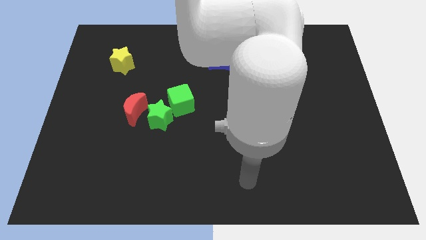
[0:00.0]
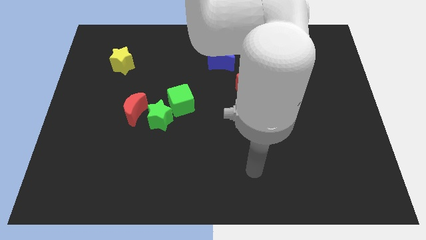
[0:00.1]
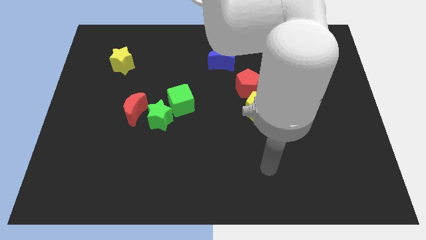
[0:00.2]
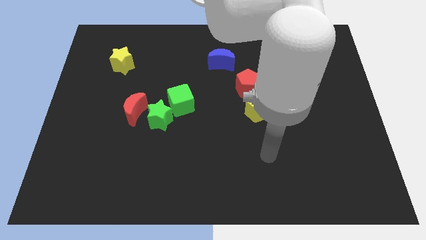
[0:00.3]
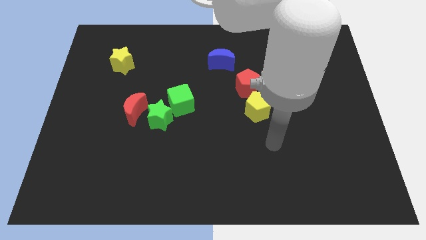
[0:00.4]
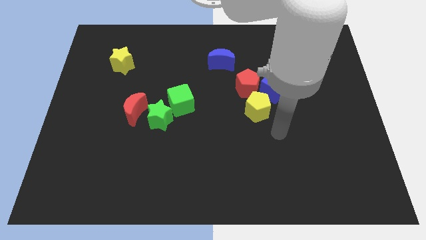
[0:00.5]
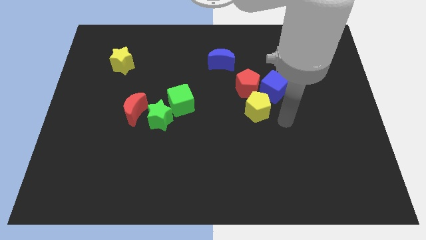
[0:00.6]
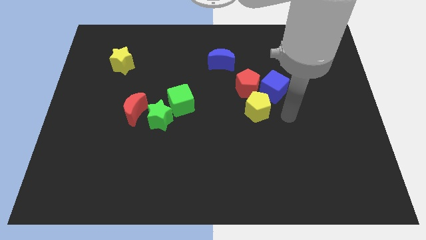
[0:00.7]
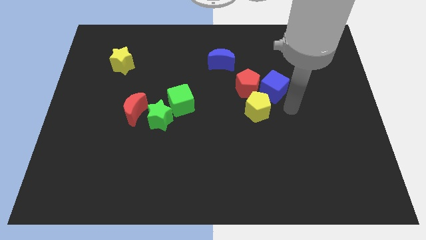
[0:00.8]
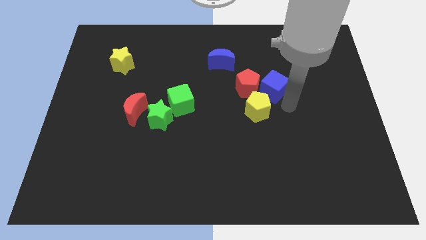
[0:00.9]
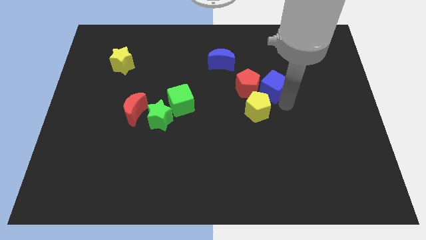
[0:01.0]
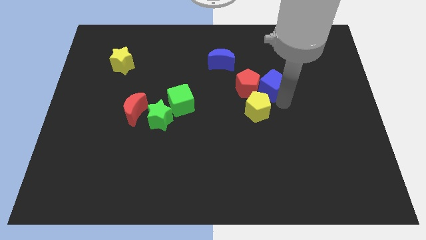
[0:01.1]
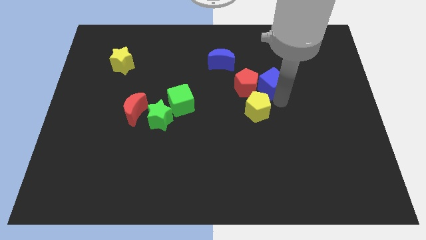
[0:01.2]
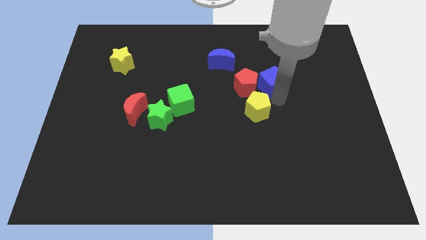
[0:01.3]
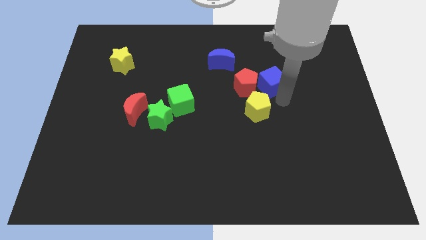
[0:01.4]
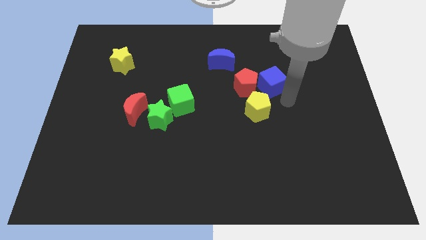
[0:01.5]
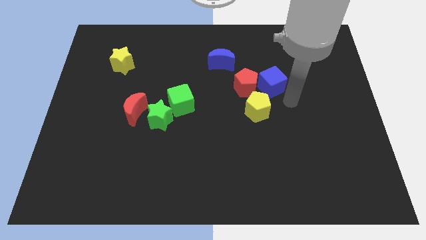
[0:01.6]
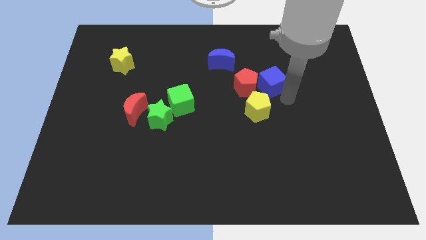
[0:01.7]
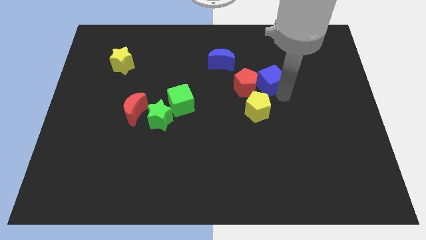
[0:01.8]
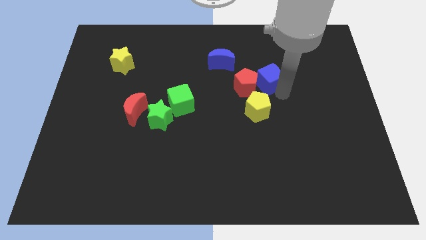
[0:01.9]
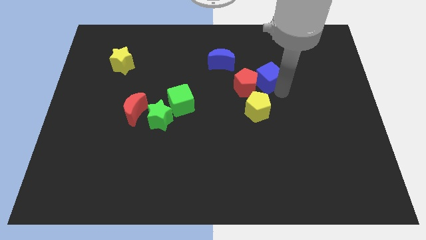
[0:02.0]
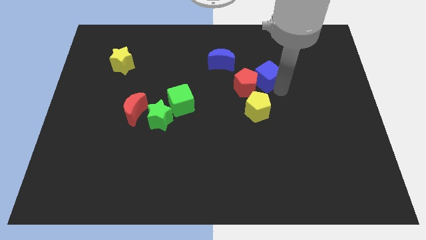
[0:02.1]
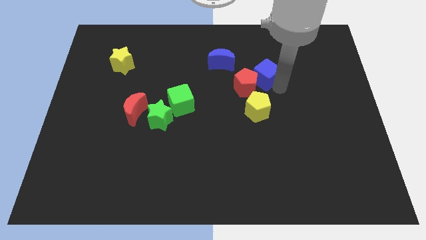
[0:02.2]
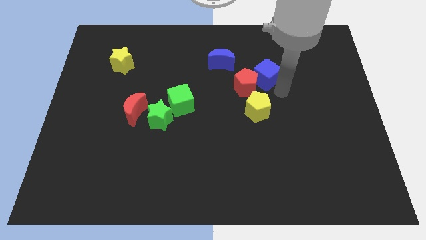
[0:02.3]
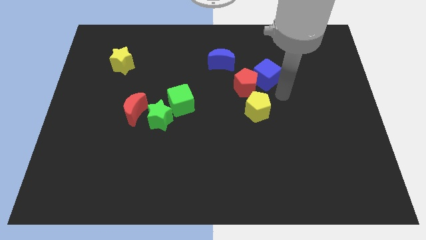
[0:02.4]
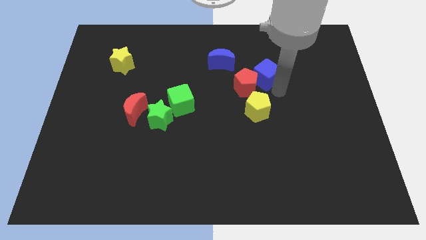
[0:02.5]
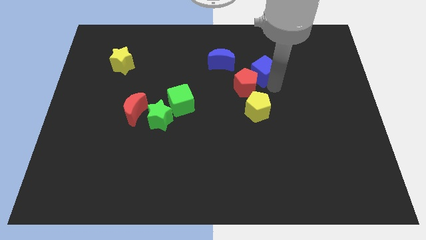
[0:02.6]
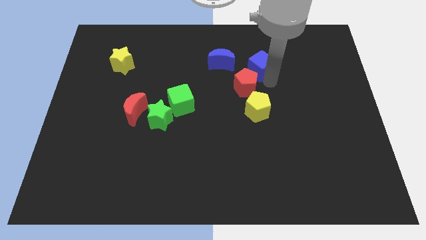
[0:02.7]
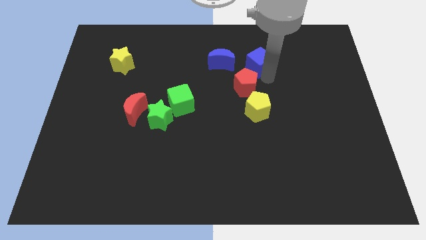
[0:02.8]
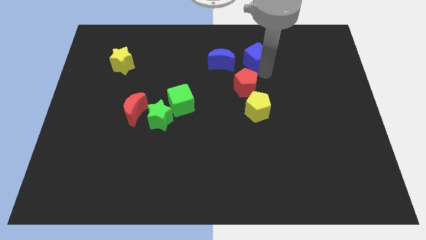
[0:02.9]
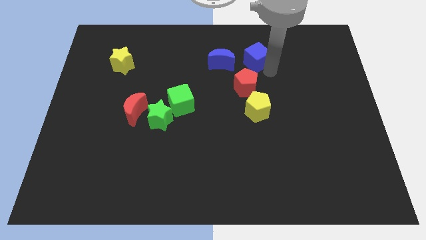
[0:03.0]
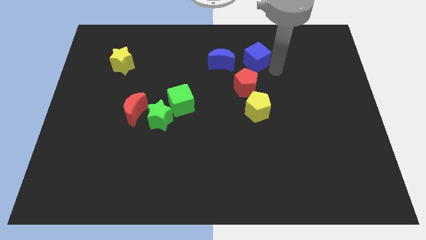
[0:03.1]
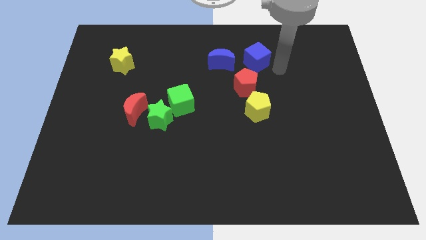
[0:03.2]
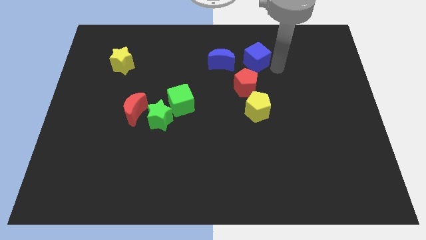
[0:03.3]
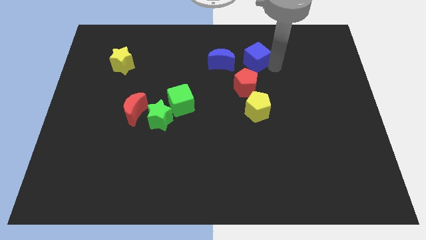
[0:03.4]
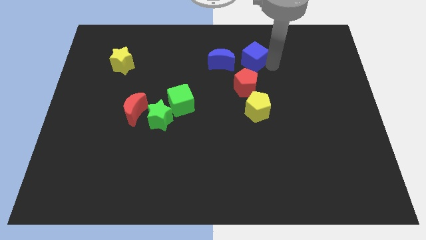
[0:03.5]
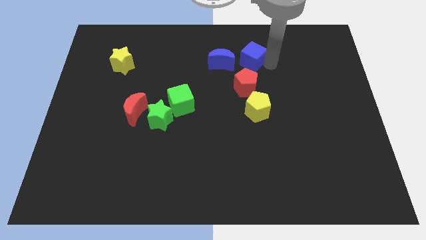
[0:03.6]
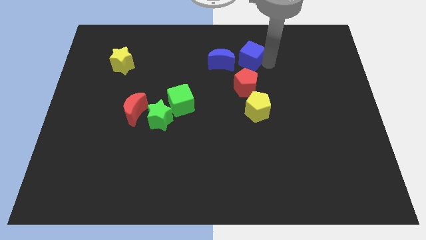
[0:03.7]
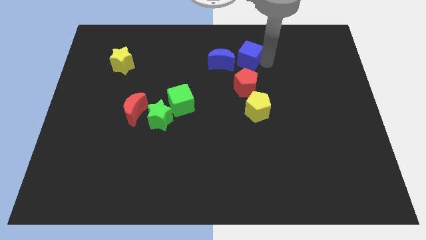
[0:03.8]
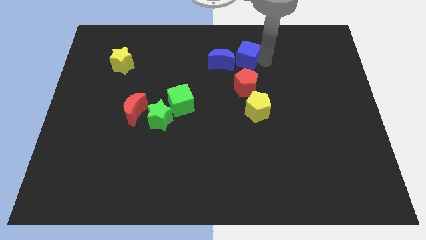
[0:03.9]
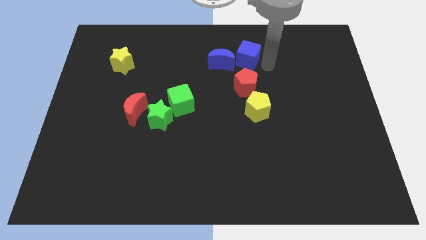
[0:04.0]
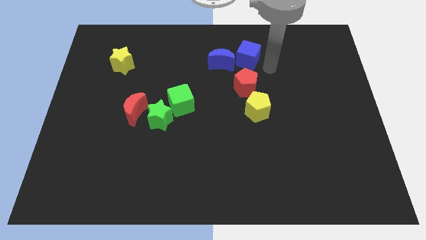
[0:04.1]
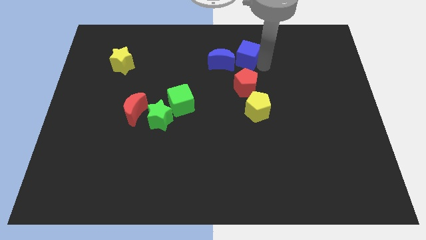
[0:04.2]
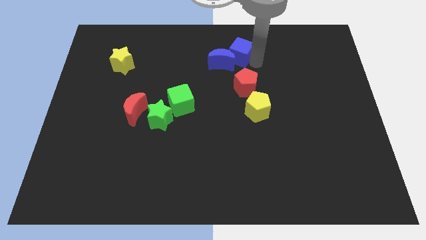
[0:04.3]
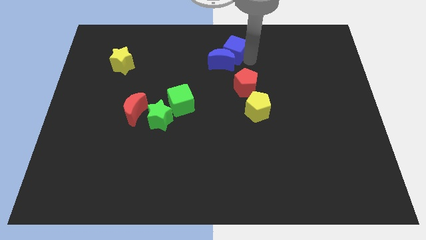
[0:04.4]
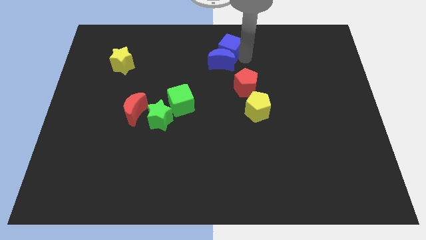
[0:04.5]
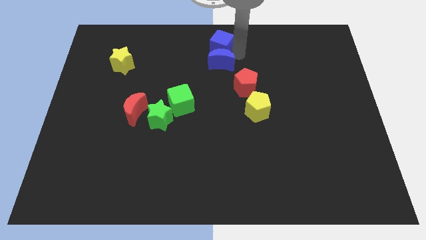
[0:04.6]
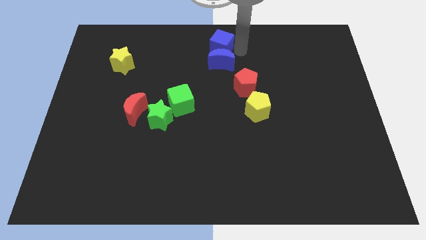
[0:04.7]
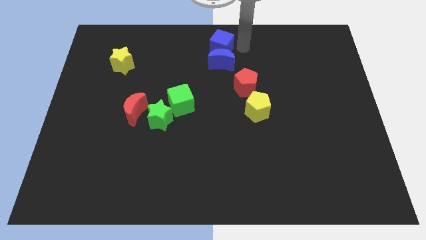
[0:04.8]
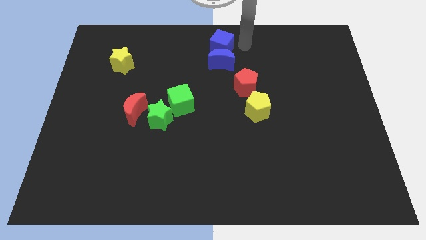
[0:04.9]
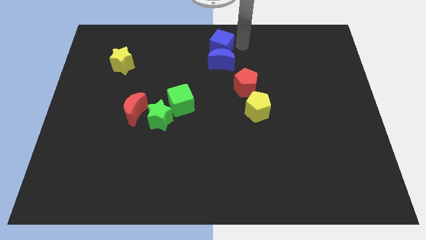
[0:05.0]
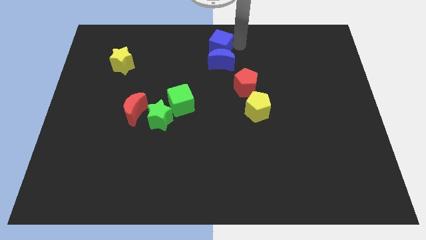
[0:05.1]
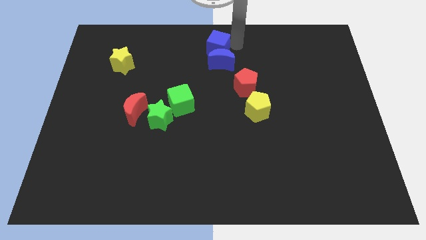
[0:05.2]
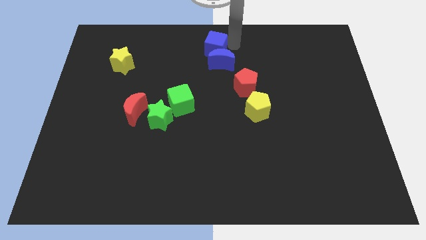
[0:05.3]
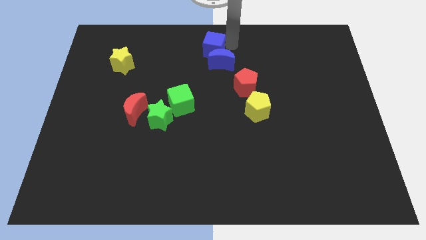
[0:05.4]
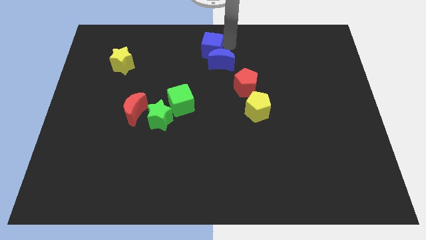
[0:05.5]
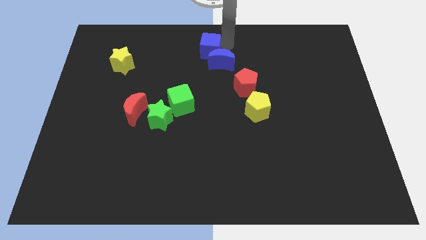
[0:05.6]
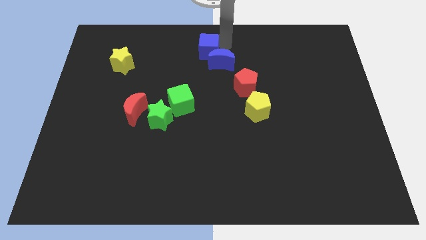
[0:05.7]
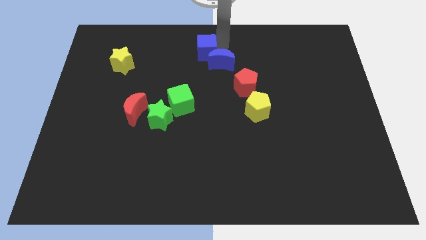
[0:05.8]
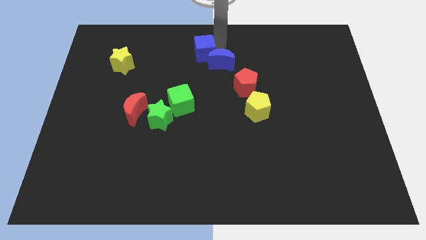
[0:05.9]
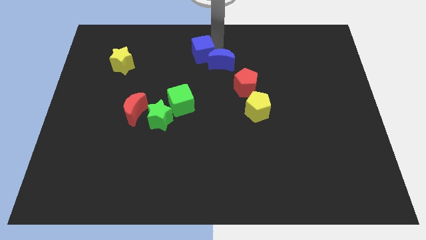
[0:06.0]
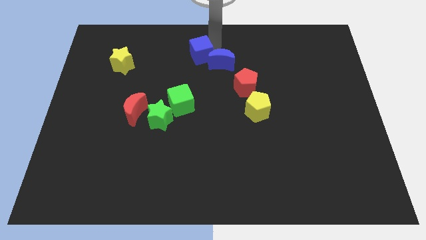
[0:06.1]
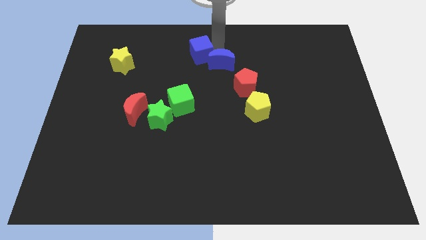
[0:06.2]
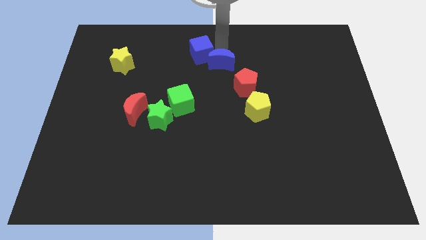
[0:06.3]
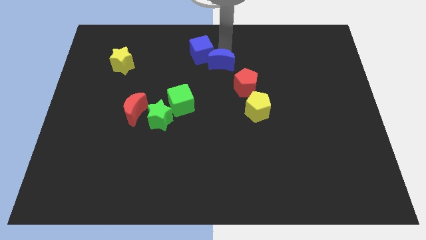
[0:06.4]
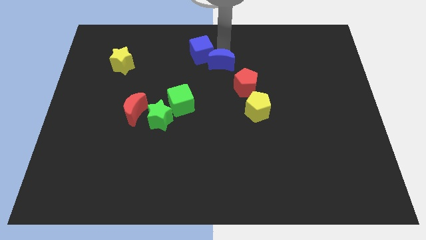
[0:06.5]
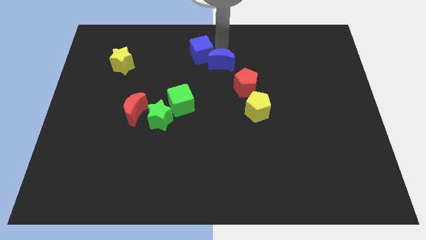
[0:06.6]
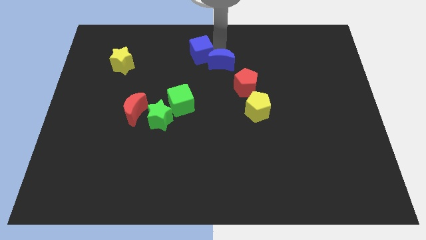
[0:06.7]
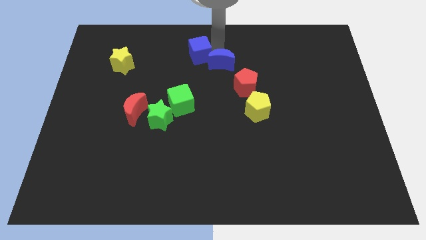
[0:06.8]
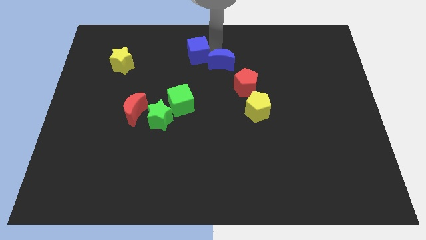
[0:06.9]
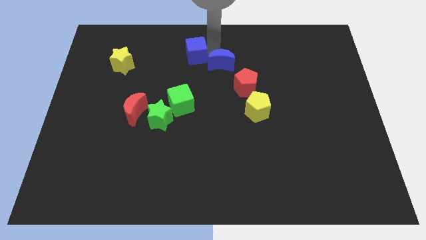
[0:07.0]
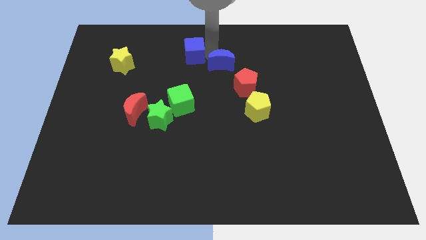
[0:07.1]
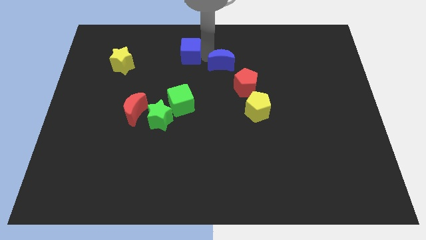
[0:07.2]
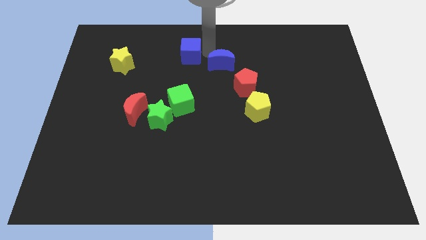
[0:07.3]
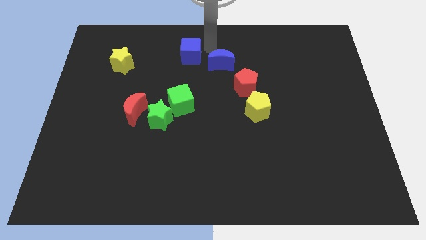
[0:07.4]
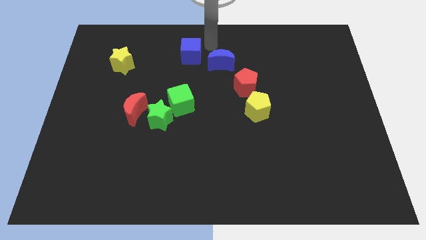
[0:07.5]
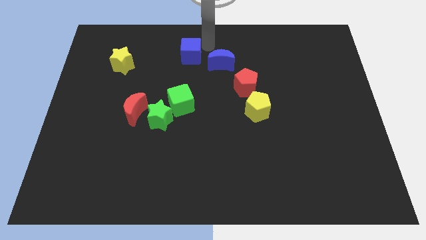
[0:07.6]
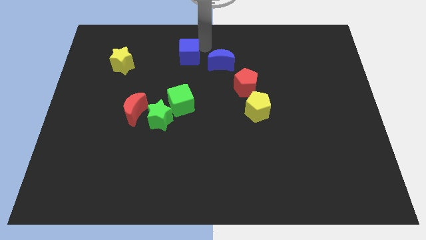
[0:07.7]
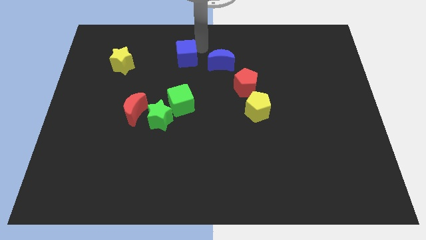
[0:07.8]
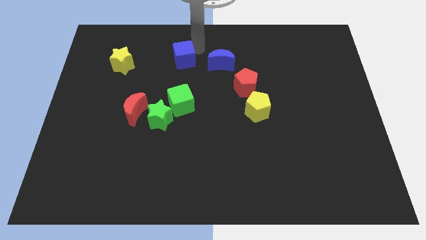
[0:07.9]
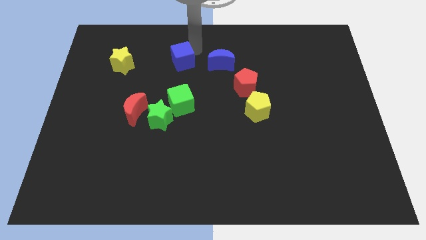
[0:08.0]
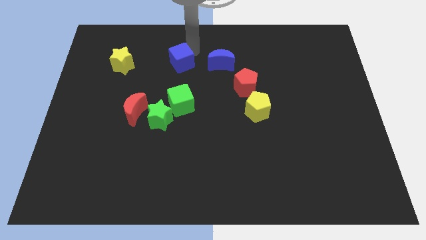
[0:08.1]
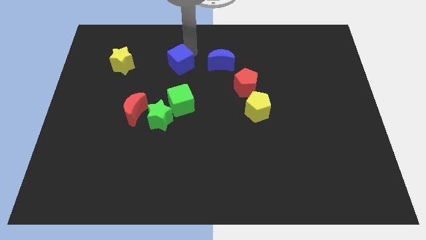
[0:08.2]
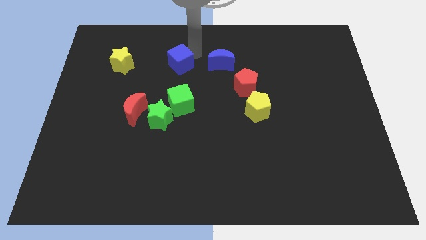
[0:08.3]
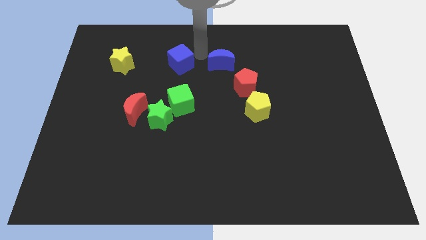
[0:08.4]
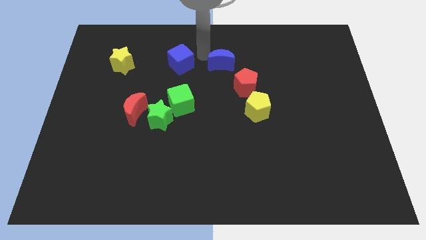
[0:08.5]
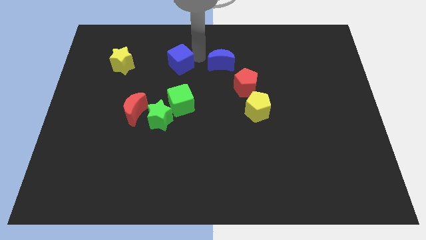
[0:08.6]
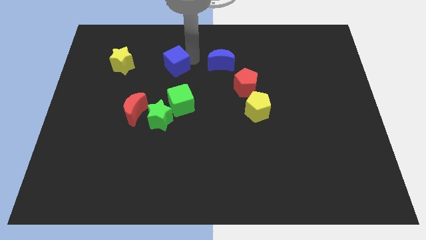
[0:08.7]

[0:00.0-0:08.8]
move the blue cube to the left
